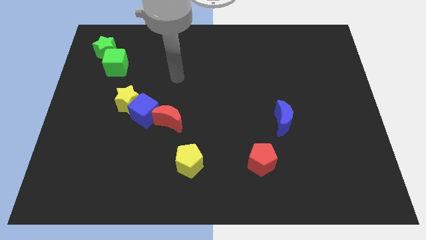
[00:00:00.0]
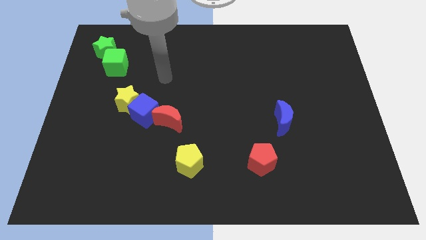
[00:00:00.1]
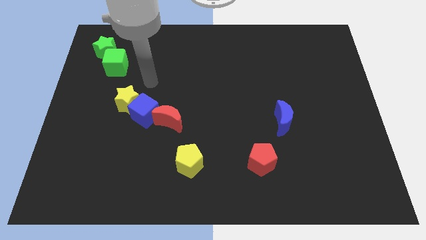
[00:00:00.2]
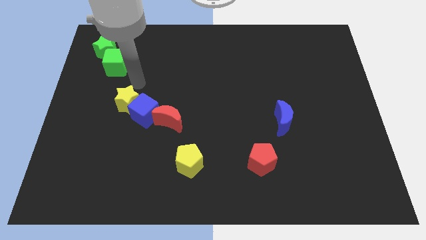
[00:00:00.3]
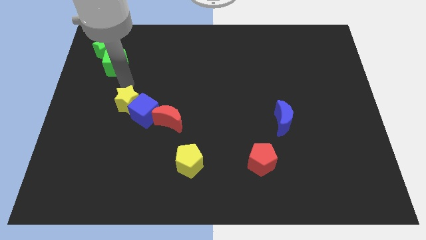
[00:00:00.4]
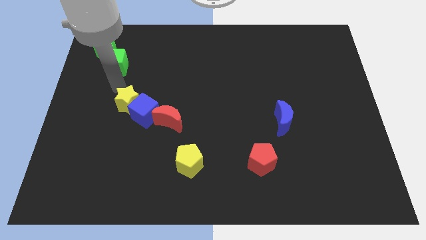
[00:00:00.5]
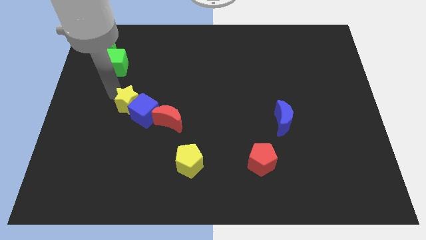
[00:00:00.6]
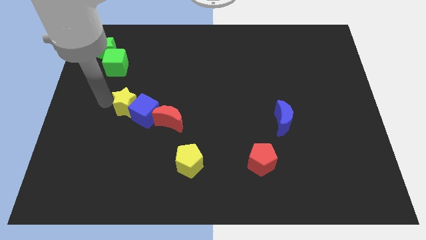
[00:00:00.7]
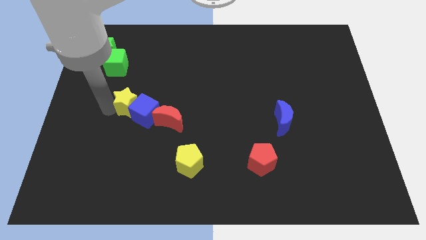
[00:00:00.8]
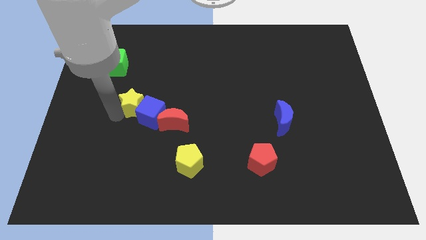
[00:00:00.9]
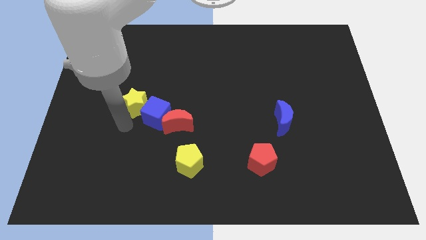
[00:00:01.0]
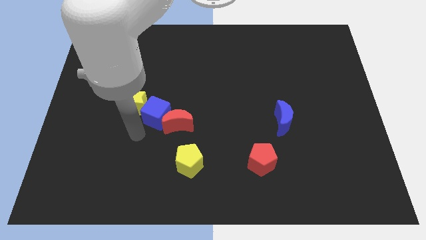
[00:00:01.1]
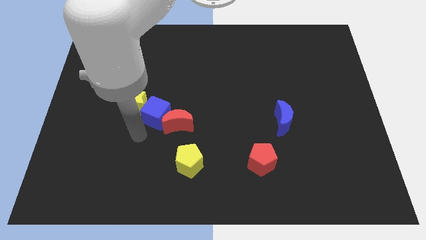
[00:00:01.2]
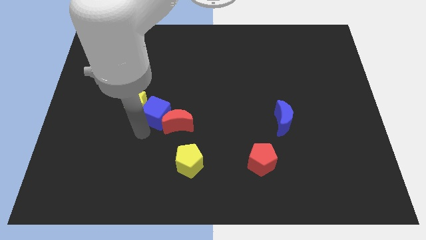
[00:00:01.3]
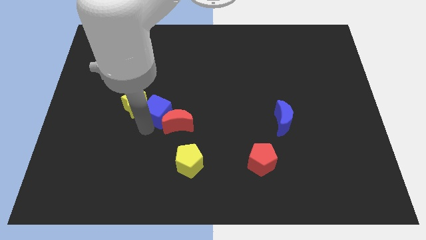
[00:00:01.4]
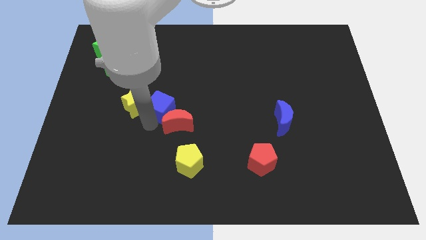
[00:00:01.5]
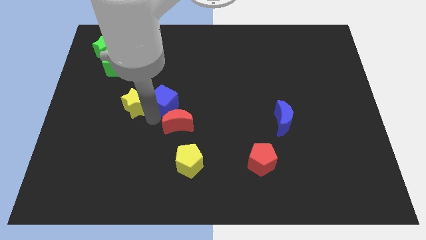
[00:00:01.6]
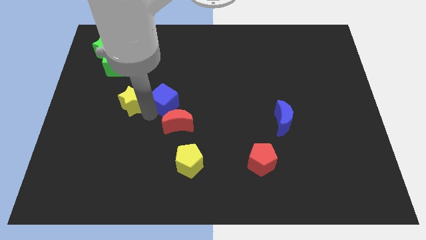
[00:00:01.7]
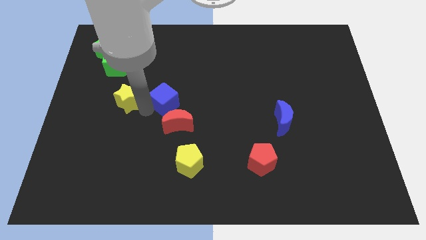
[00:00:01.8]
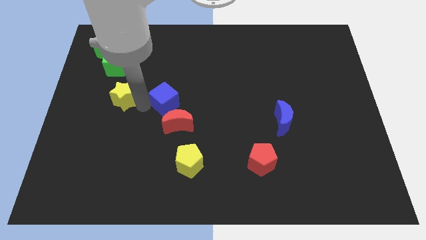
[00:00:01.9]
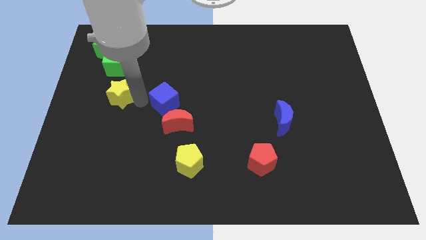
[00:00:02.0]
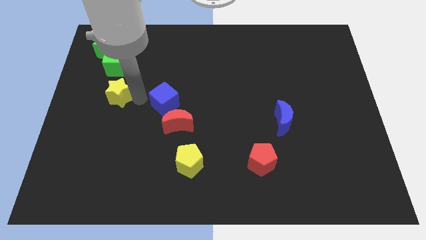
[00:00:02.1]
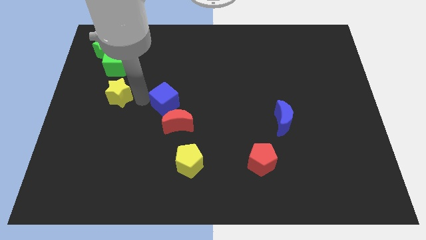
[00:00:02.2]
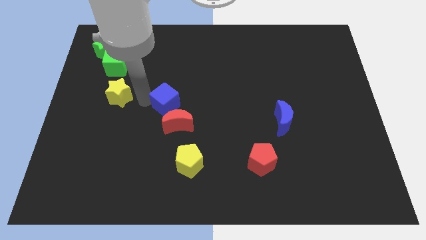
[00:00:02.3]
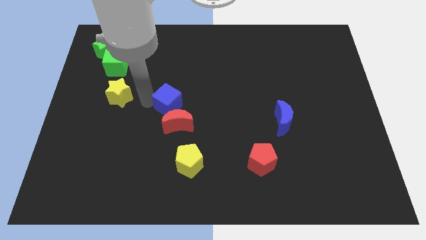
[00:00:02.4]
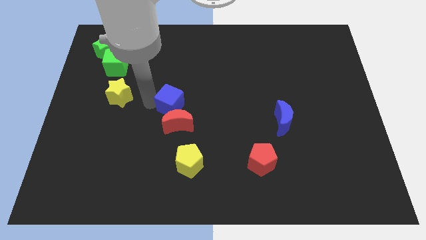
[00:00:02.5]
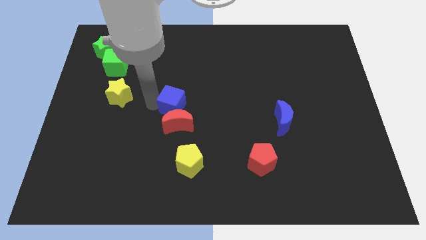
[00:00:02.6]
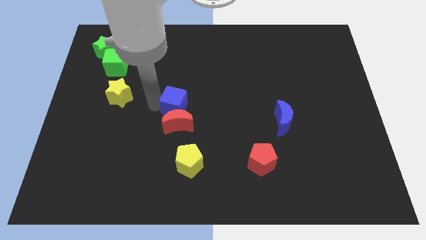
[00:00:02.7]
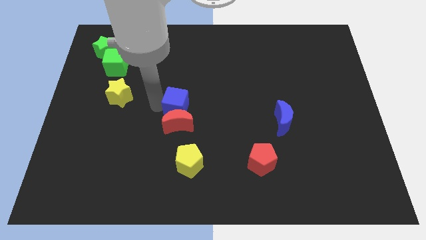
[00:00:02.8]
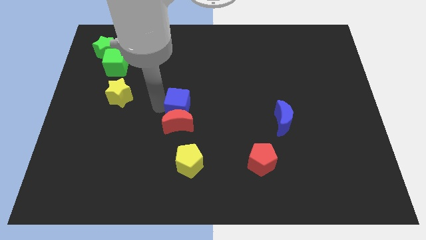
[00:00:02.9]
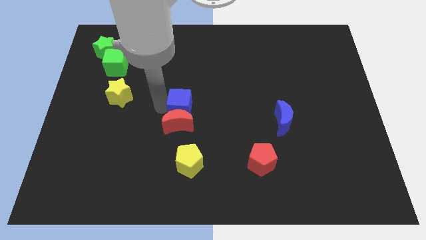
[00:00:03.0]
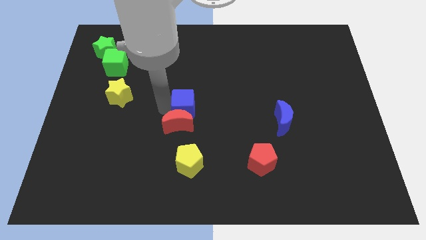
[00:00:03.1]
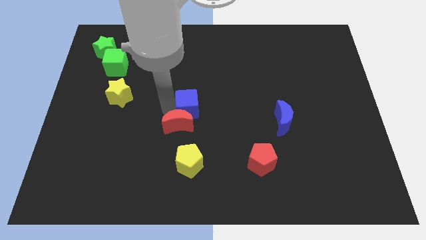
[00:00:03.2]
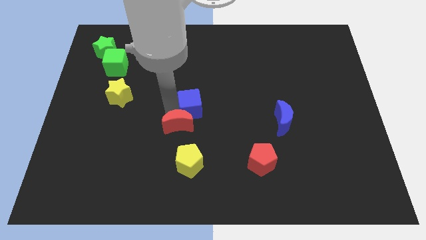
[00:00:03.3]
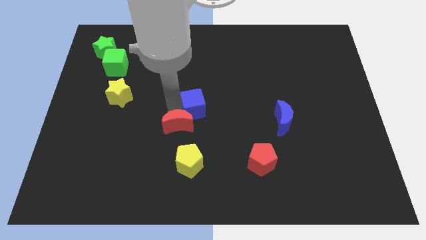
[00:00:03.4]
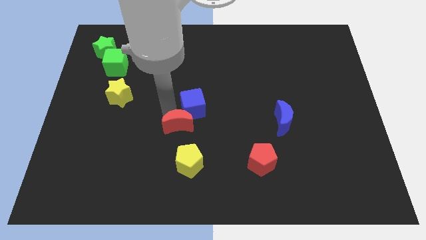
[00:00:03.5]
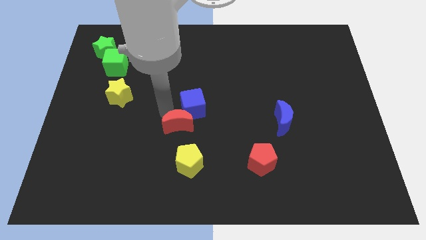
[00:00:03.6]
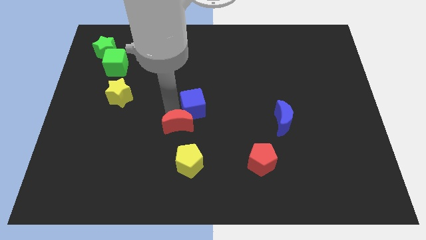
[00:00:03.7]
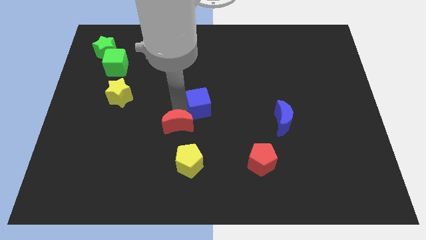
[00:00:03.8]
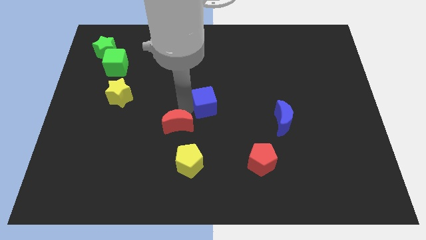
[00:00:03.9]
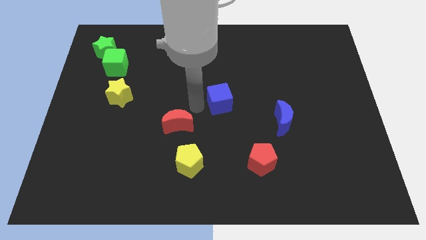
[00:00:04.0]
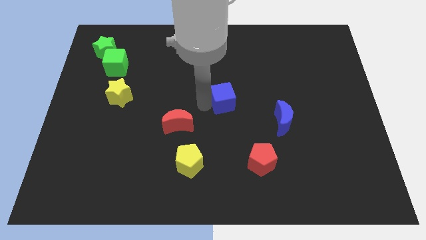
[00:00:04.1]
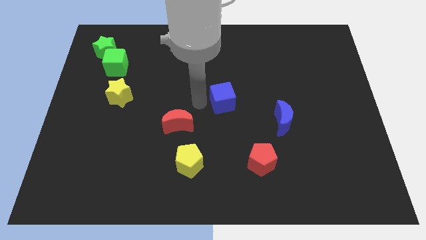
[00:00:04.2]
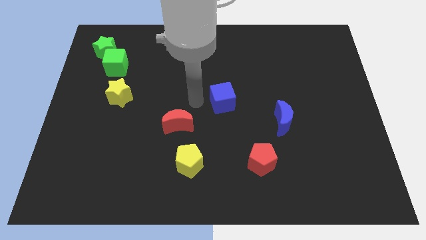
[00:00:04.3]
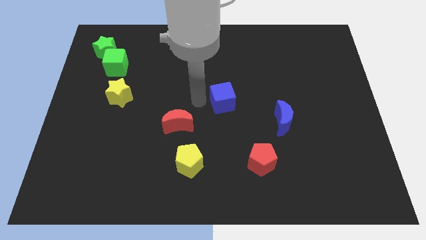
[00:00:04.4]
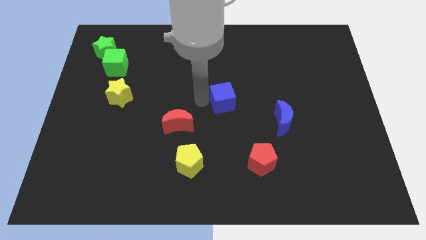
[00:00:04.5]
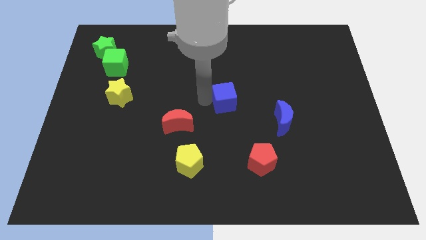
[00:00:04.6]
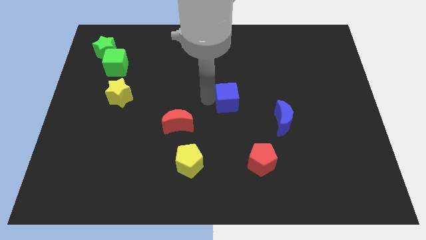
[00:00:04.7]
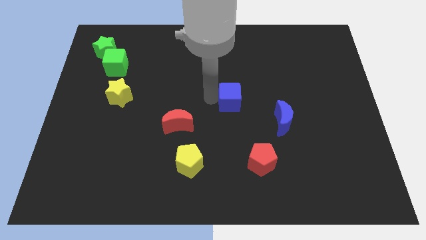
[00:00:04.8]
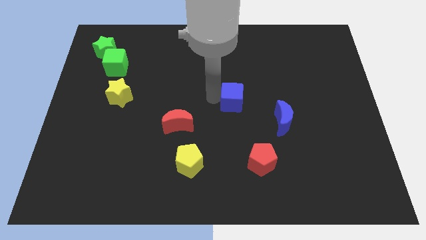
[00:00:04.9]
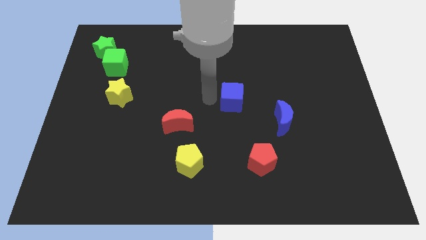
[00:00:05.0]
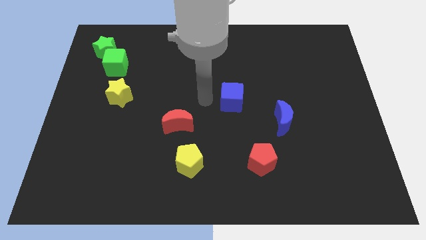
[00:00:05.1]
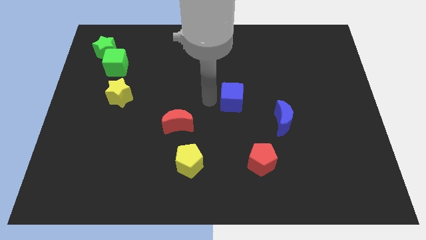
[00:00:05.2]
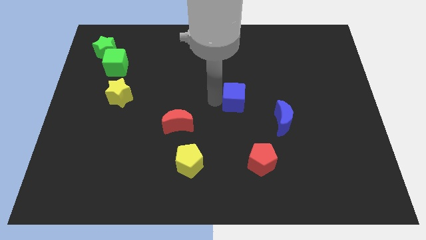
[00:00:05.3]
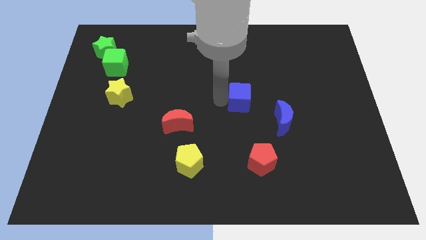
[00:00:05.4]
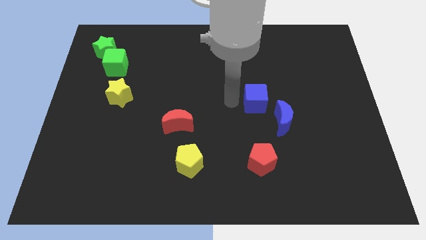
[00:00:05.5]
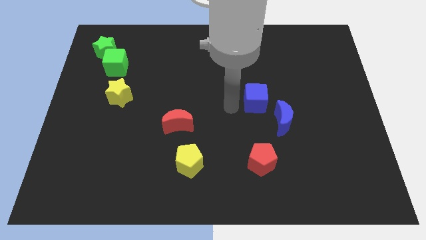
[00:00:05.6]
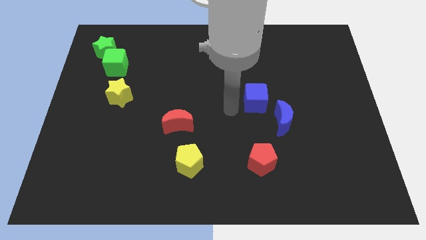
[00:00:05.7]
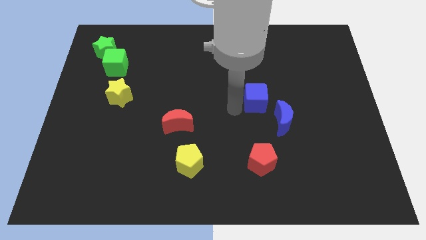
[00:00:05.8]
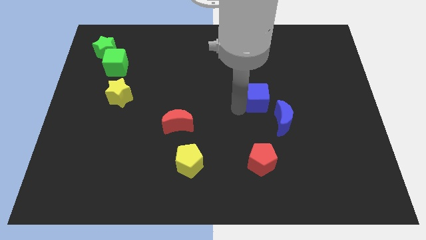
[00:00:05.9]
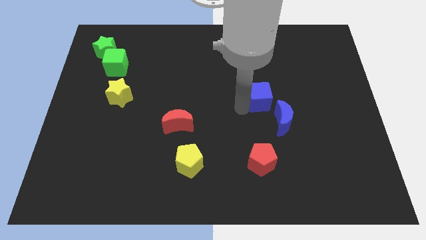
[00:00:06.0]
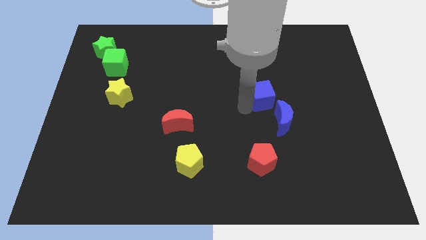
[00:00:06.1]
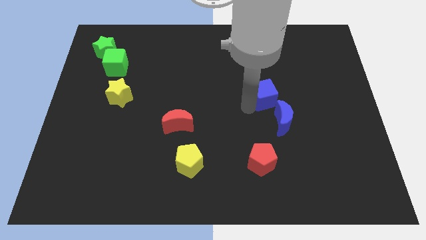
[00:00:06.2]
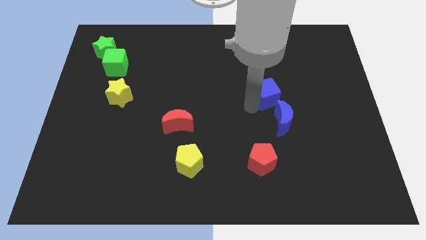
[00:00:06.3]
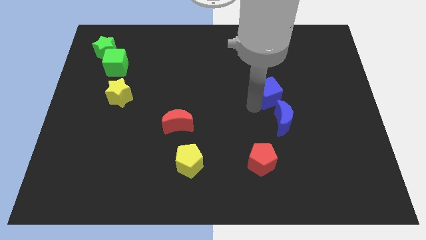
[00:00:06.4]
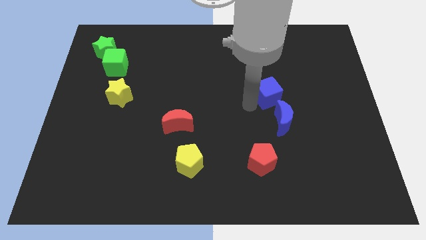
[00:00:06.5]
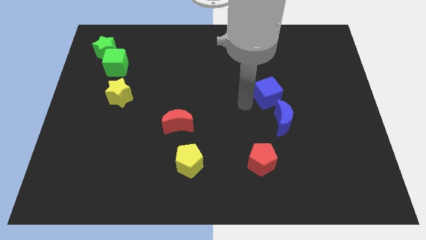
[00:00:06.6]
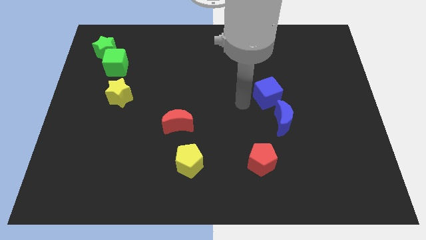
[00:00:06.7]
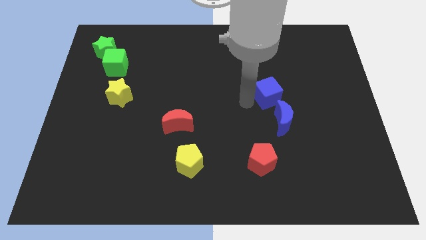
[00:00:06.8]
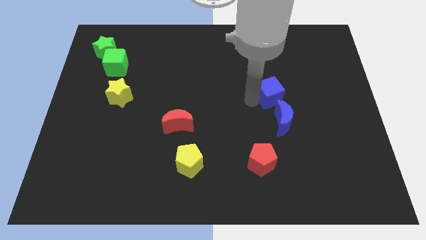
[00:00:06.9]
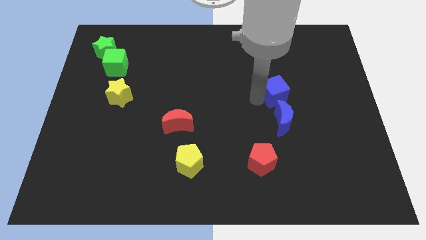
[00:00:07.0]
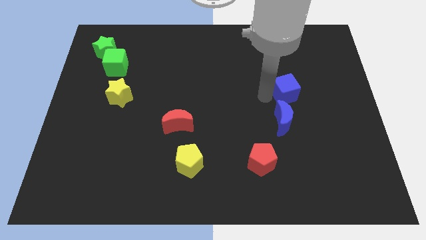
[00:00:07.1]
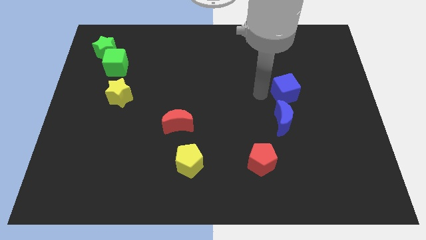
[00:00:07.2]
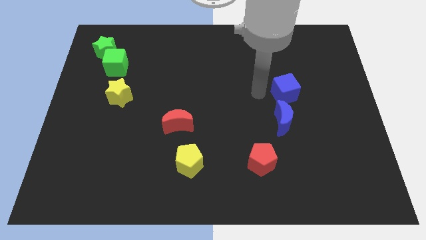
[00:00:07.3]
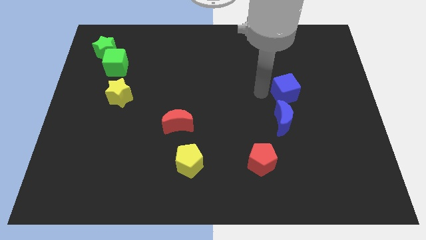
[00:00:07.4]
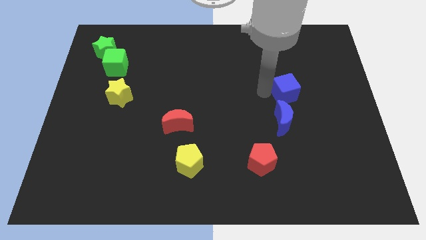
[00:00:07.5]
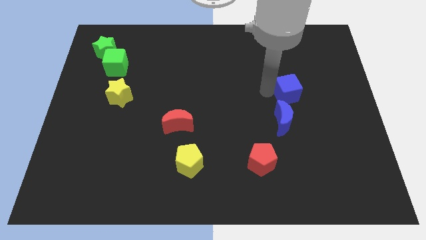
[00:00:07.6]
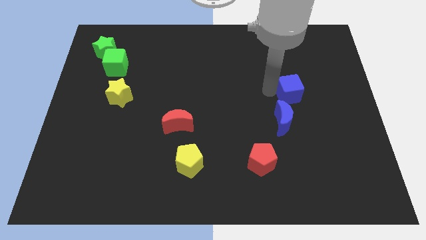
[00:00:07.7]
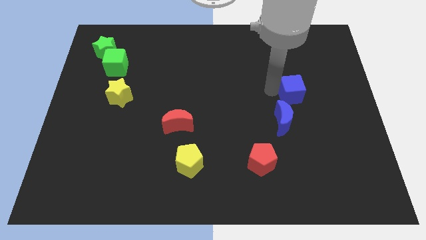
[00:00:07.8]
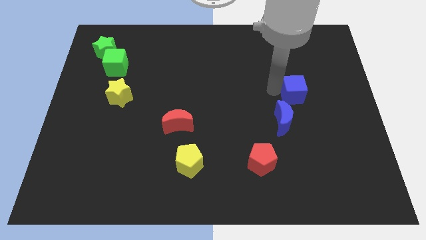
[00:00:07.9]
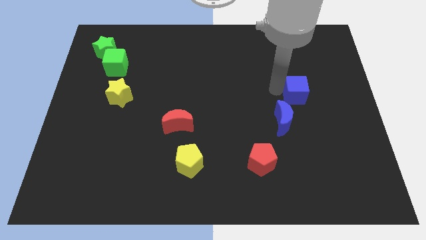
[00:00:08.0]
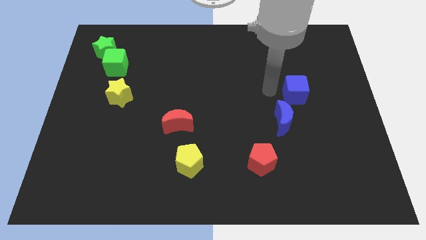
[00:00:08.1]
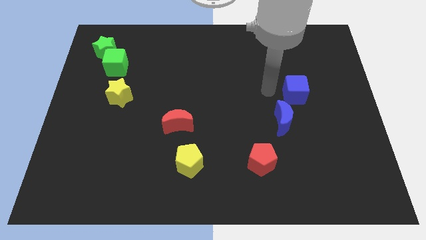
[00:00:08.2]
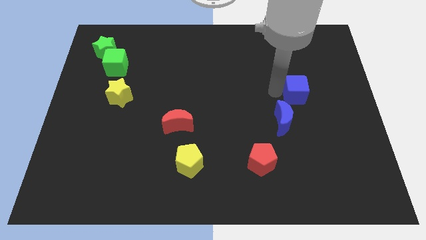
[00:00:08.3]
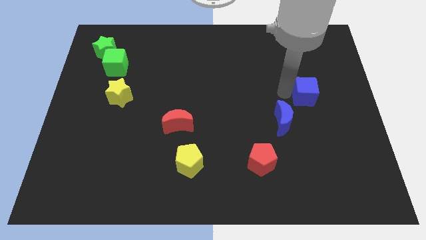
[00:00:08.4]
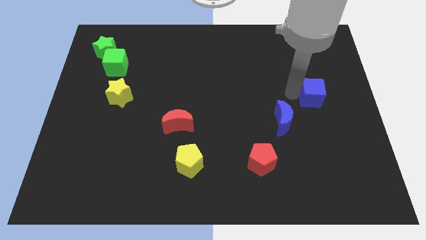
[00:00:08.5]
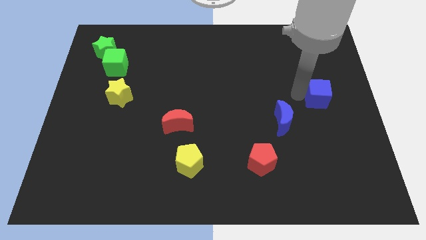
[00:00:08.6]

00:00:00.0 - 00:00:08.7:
move the blue cube to the center right
